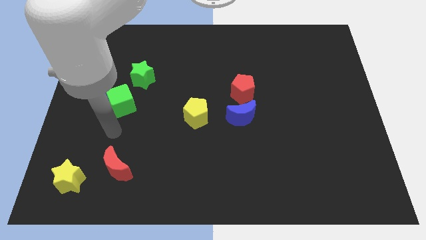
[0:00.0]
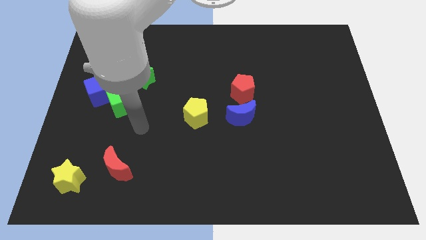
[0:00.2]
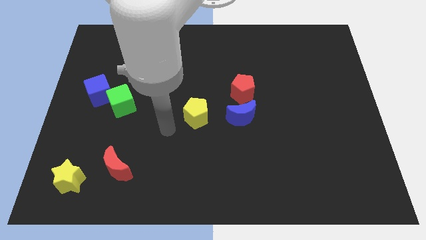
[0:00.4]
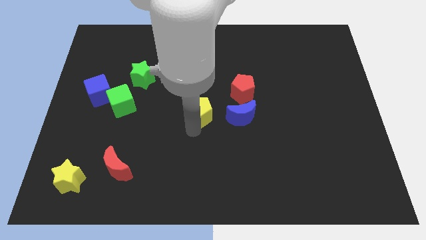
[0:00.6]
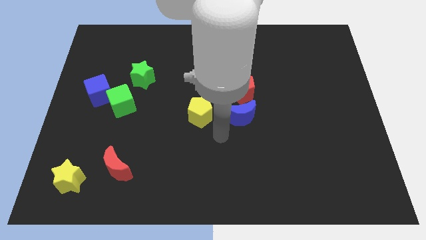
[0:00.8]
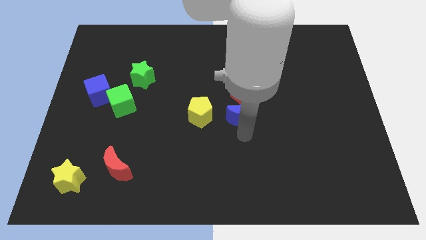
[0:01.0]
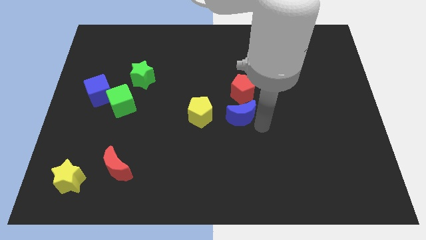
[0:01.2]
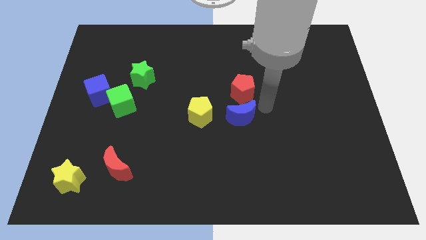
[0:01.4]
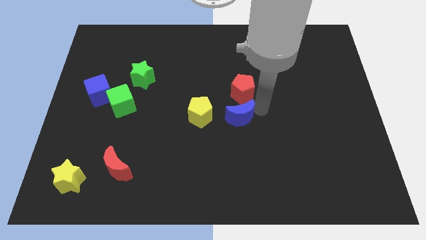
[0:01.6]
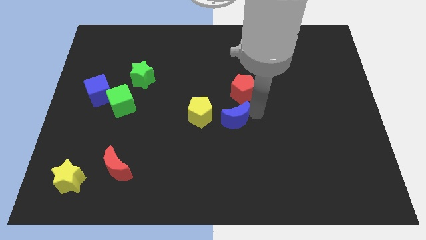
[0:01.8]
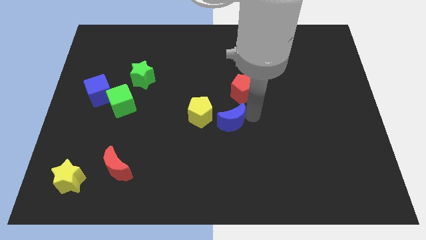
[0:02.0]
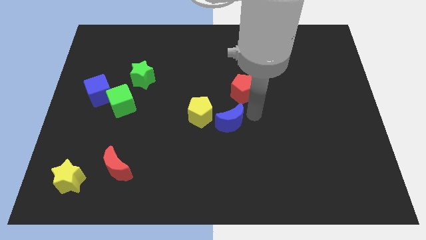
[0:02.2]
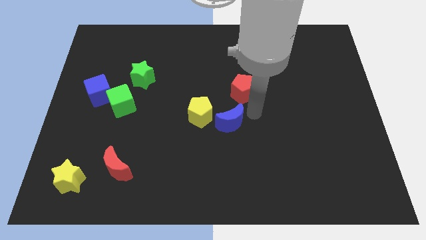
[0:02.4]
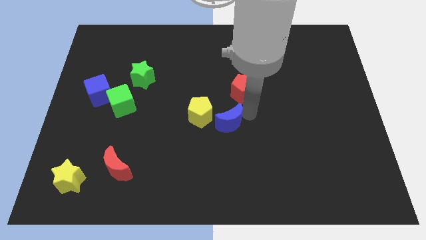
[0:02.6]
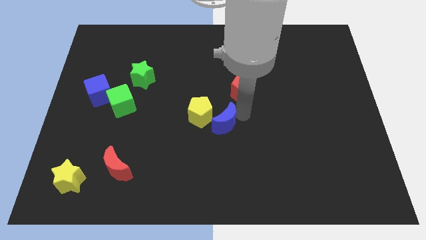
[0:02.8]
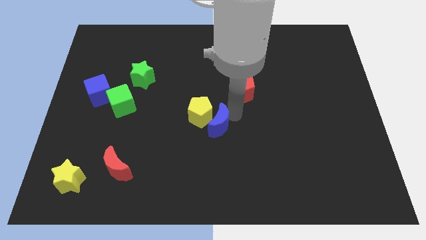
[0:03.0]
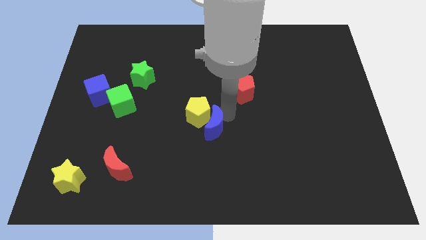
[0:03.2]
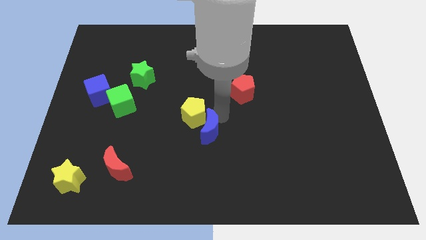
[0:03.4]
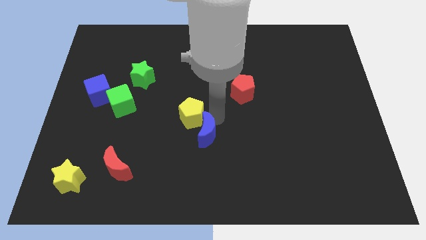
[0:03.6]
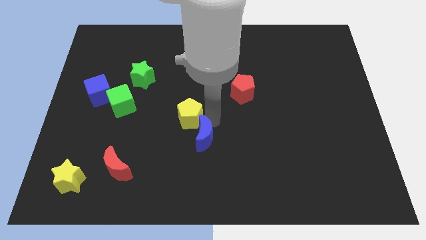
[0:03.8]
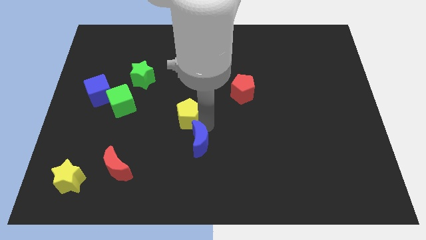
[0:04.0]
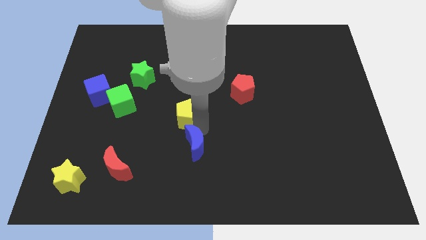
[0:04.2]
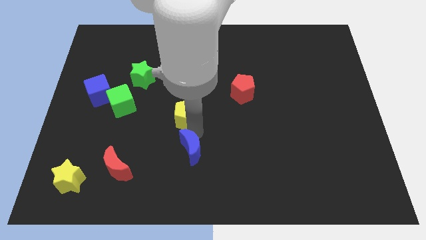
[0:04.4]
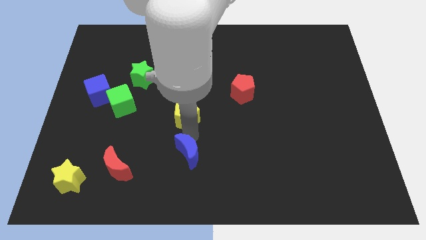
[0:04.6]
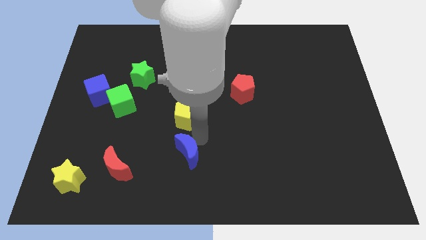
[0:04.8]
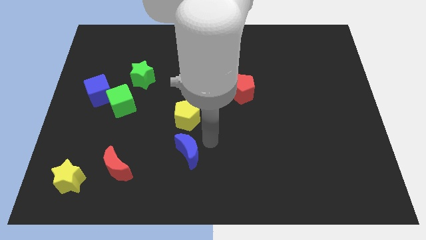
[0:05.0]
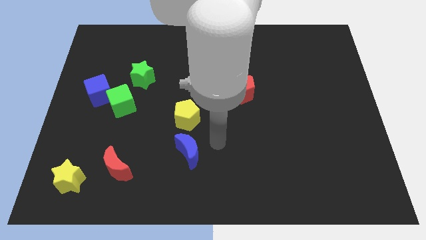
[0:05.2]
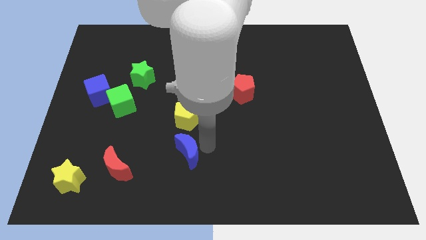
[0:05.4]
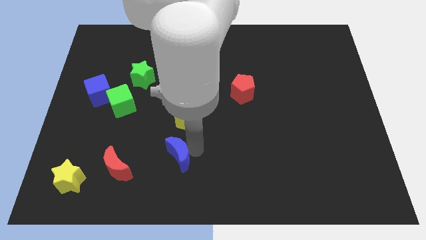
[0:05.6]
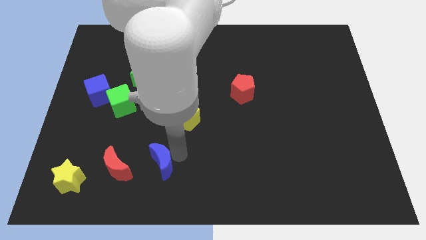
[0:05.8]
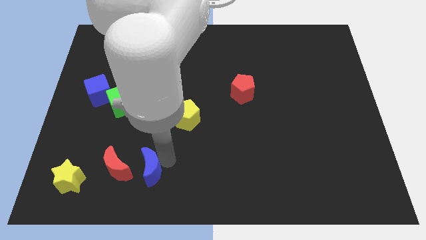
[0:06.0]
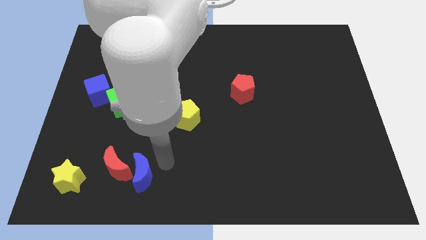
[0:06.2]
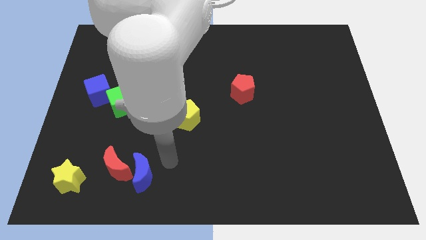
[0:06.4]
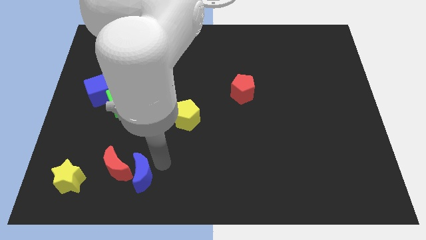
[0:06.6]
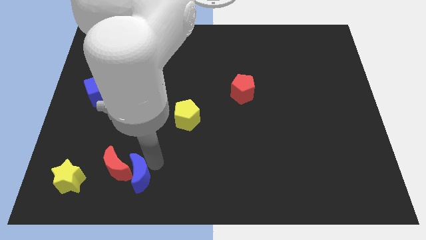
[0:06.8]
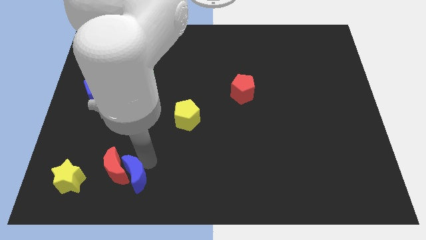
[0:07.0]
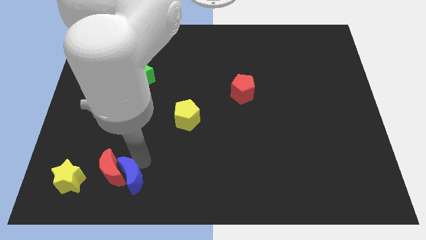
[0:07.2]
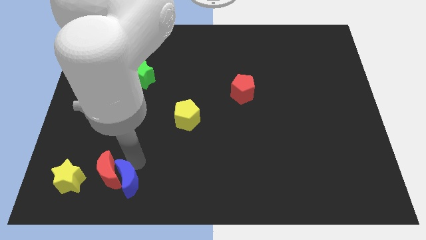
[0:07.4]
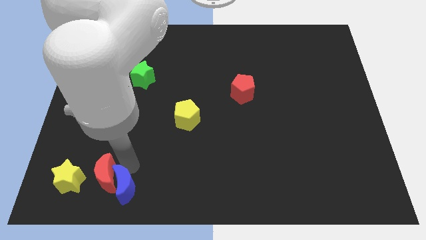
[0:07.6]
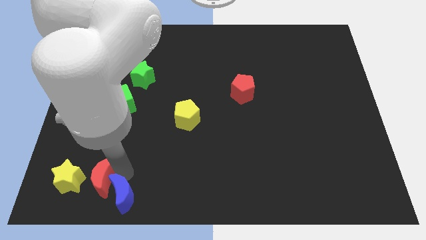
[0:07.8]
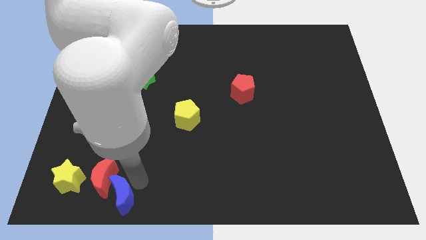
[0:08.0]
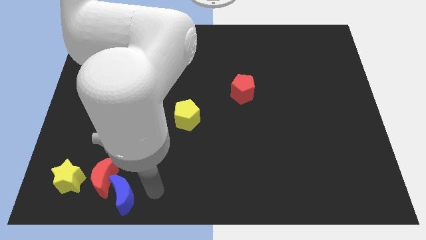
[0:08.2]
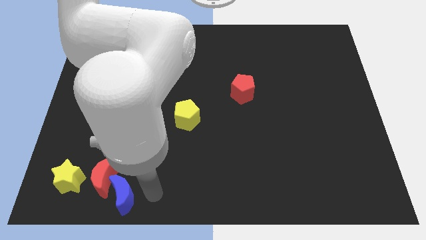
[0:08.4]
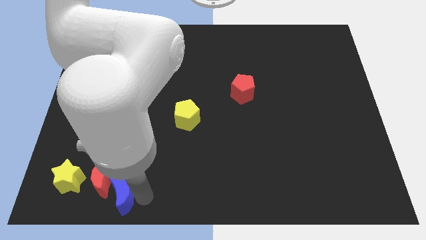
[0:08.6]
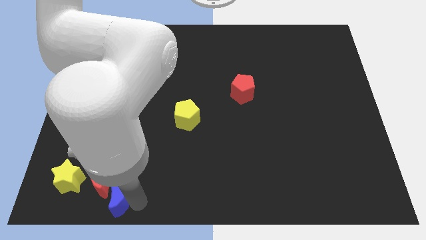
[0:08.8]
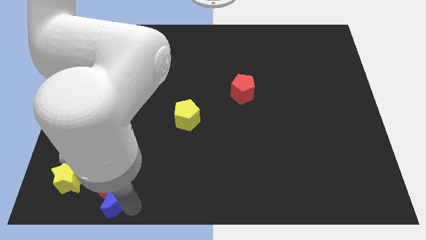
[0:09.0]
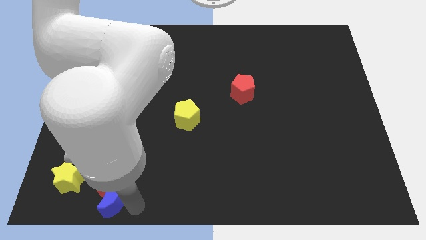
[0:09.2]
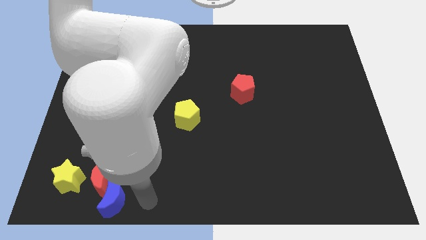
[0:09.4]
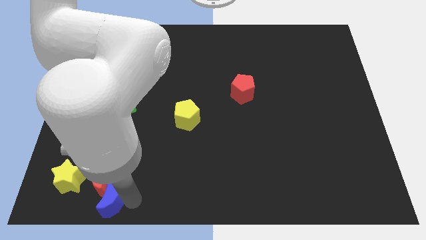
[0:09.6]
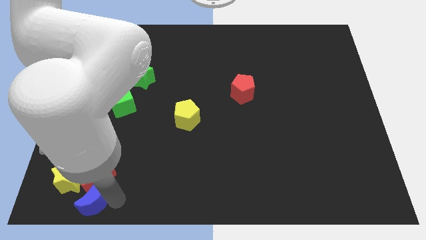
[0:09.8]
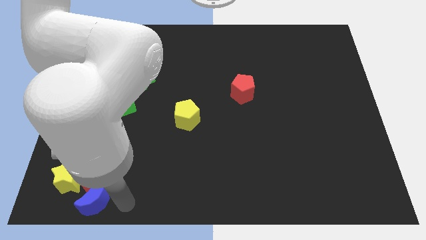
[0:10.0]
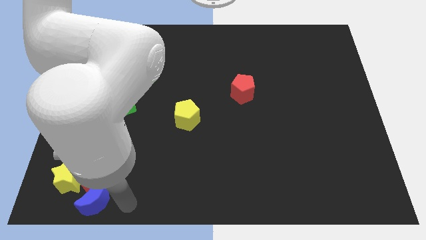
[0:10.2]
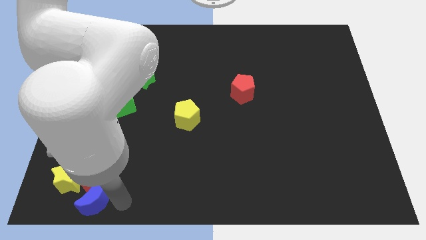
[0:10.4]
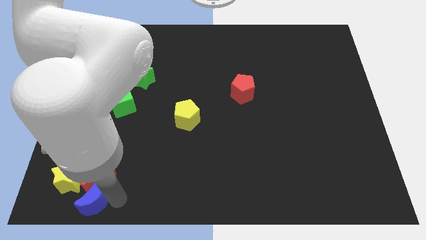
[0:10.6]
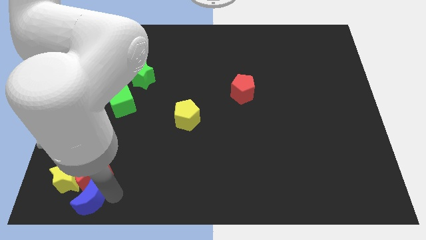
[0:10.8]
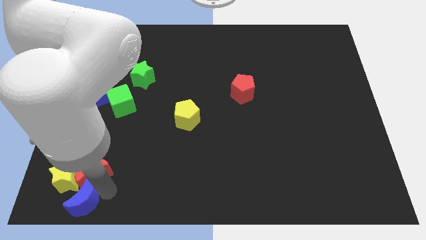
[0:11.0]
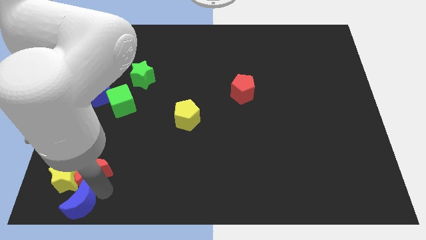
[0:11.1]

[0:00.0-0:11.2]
put the blue moon to the bottom left

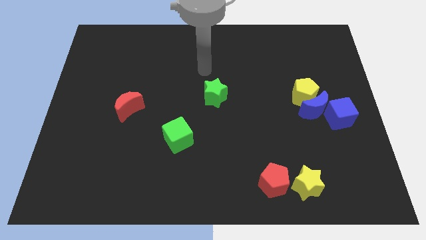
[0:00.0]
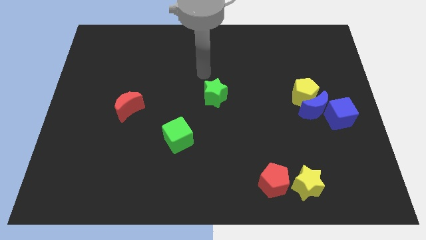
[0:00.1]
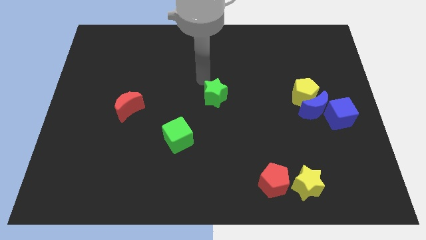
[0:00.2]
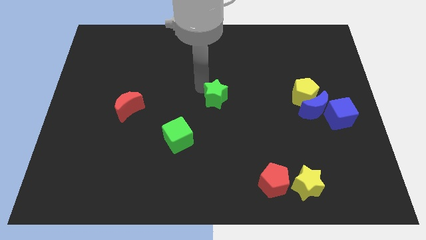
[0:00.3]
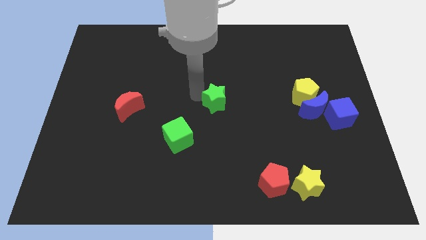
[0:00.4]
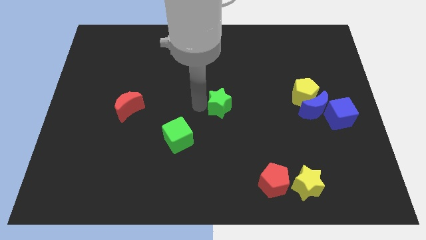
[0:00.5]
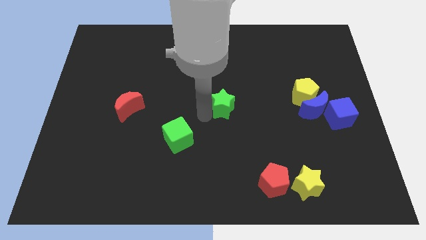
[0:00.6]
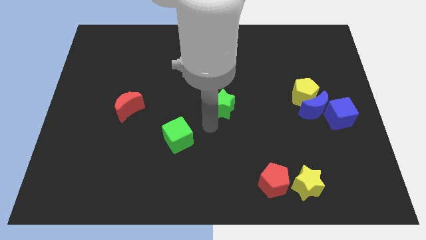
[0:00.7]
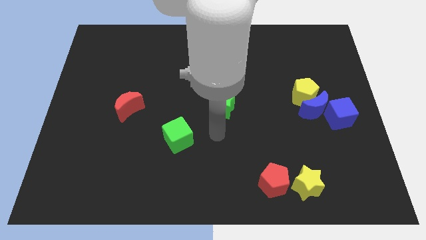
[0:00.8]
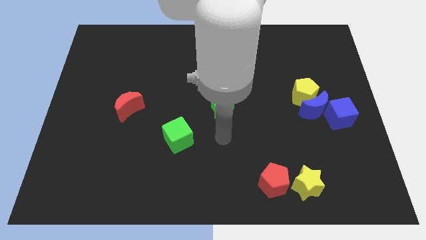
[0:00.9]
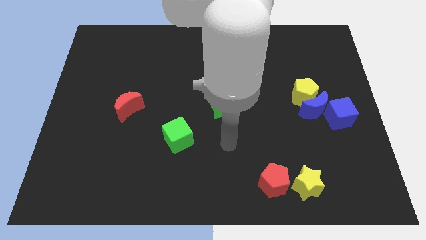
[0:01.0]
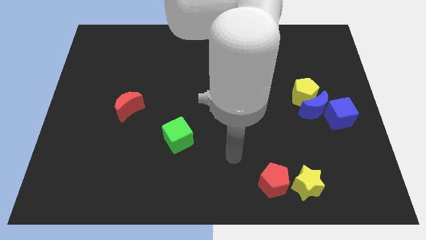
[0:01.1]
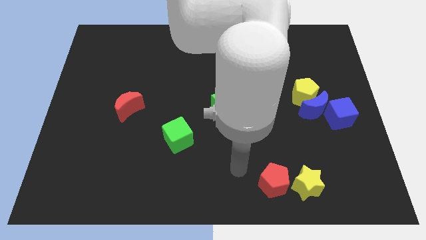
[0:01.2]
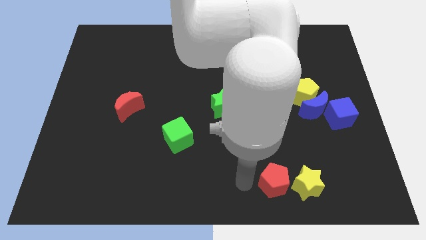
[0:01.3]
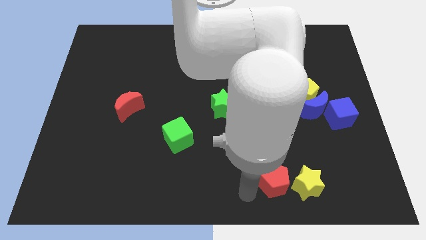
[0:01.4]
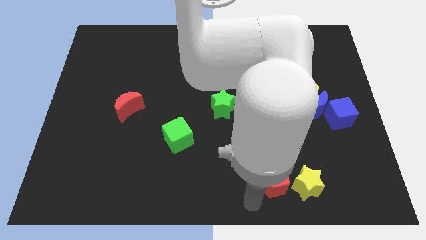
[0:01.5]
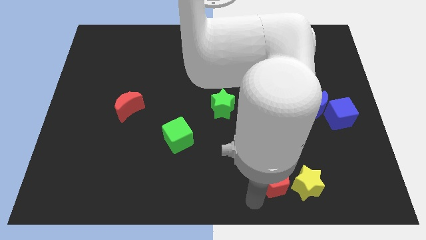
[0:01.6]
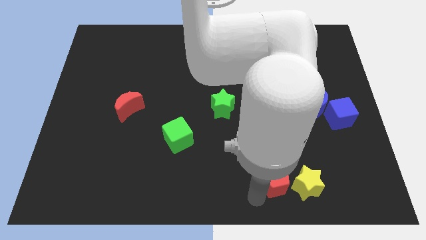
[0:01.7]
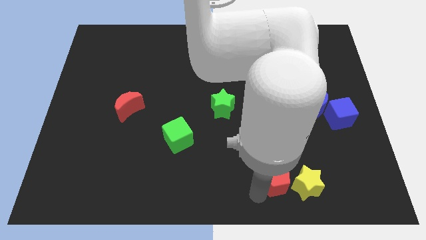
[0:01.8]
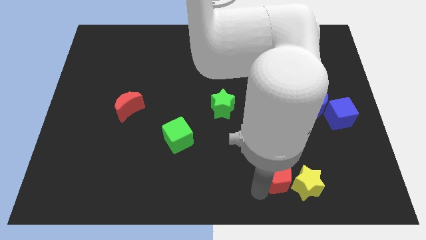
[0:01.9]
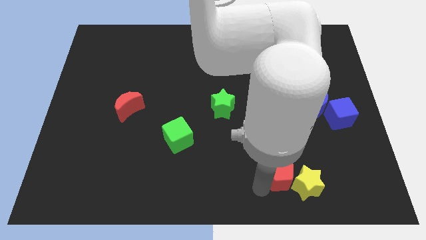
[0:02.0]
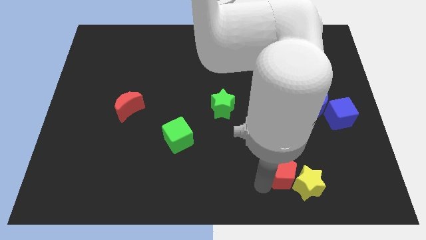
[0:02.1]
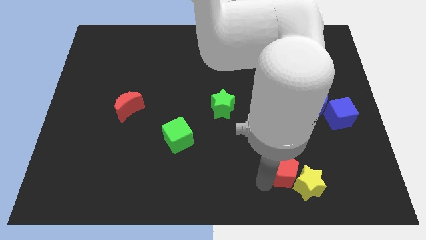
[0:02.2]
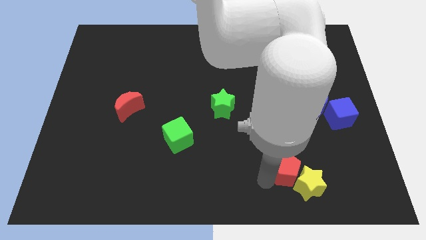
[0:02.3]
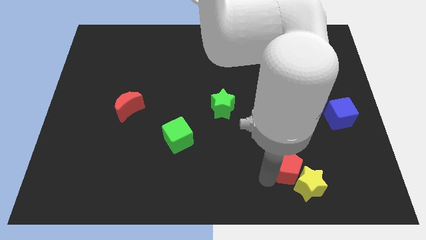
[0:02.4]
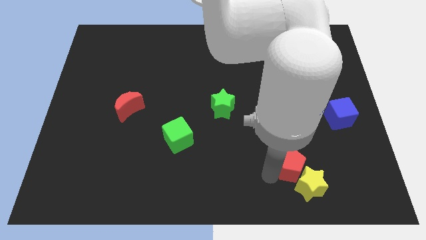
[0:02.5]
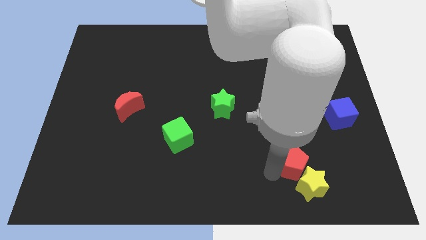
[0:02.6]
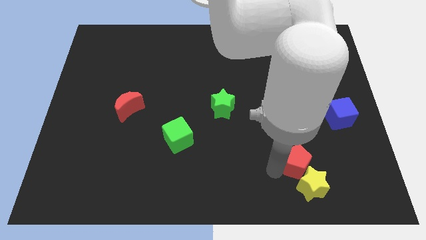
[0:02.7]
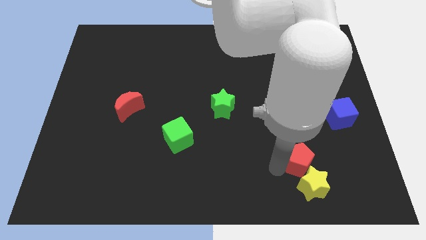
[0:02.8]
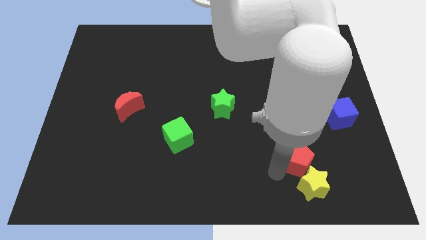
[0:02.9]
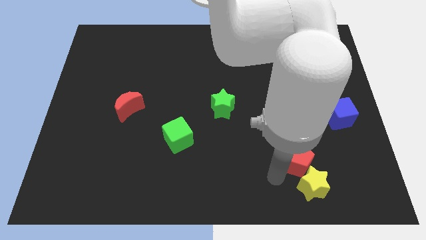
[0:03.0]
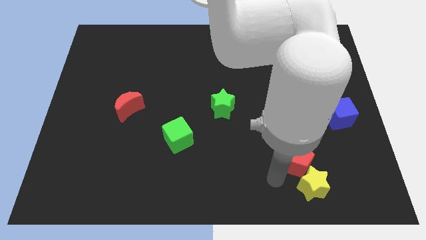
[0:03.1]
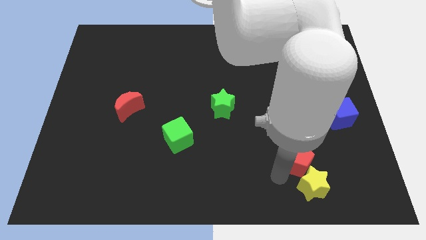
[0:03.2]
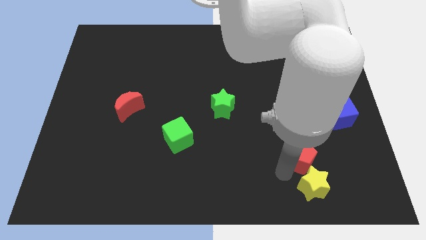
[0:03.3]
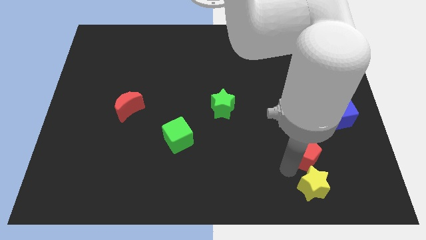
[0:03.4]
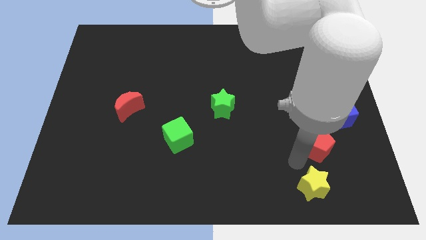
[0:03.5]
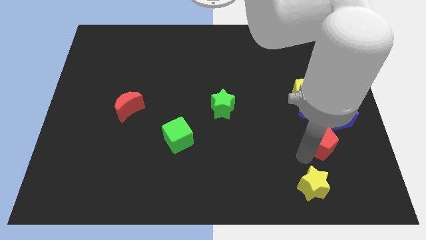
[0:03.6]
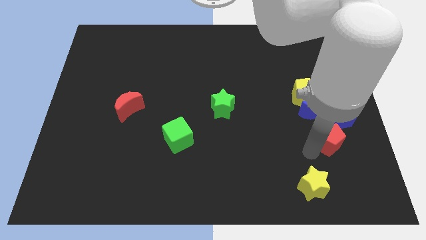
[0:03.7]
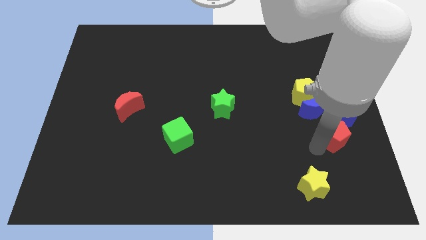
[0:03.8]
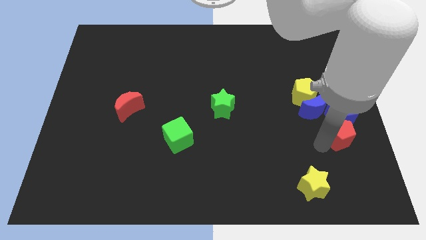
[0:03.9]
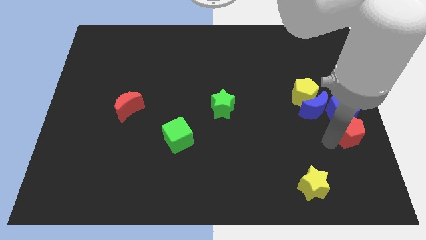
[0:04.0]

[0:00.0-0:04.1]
push the red pentagon to the right side
